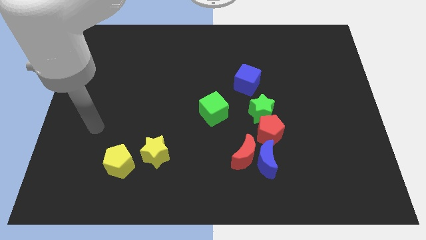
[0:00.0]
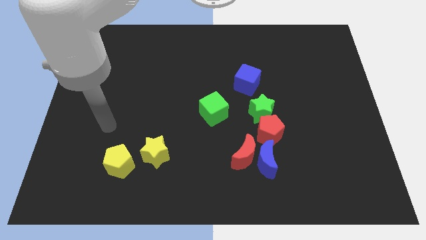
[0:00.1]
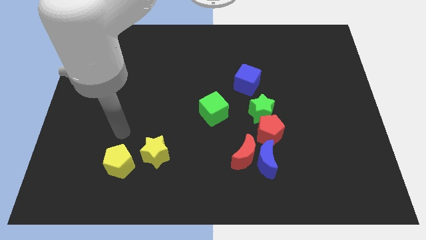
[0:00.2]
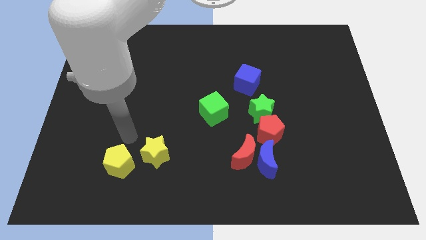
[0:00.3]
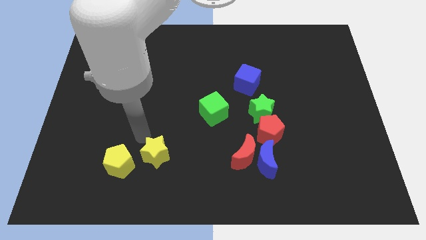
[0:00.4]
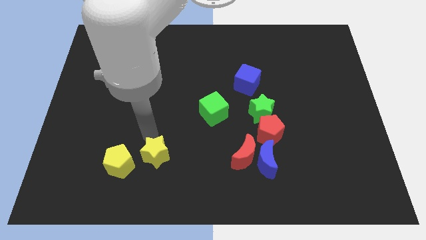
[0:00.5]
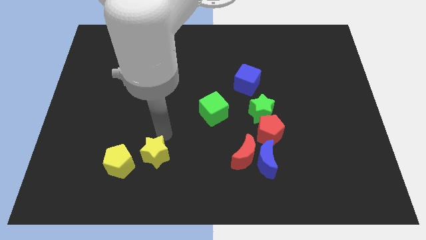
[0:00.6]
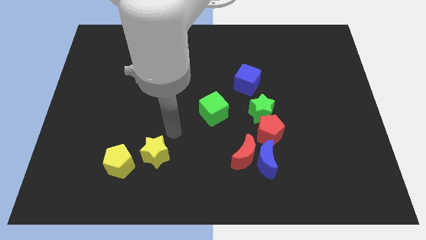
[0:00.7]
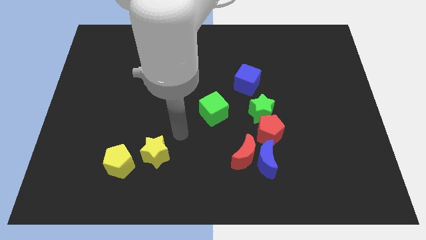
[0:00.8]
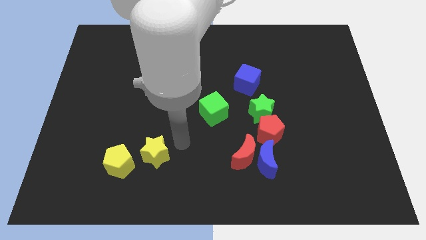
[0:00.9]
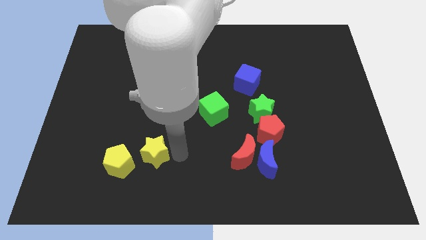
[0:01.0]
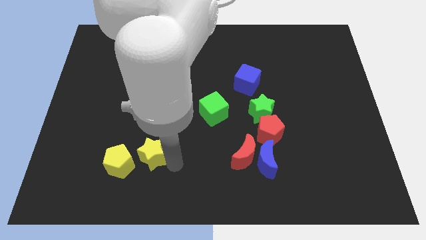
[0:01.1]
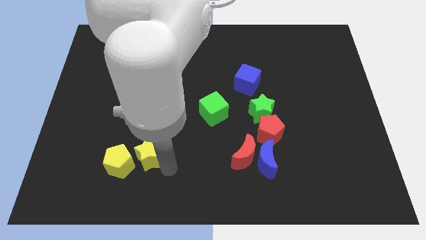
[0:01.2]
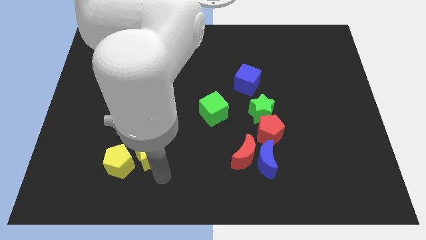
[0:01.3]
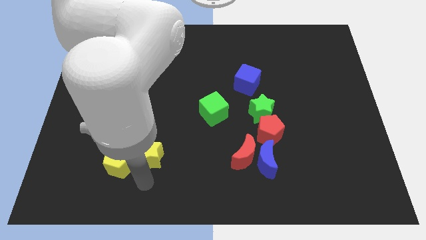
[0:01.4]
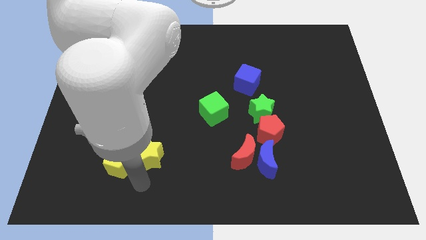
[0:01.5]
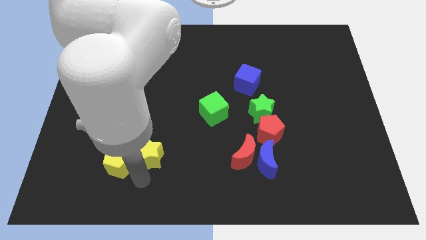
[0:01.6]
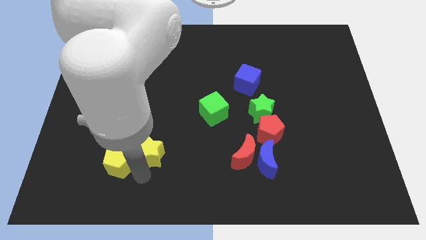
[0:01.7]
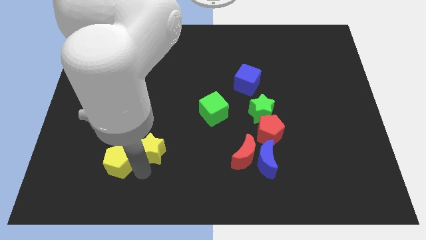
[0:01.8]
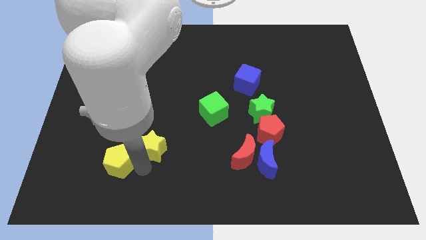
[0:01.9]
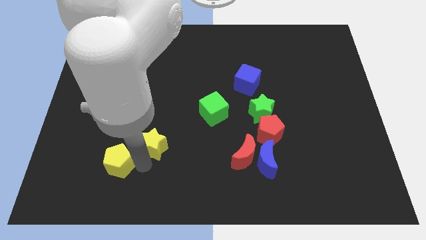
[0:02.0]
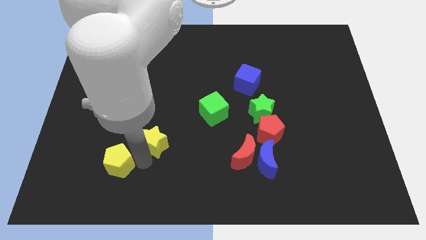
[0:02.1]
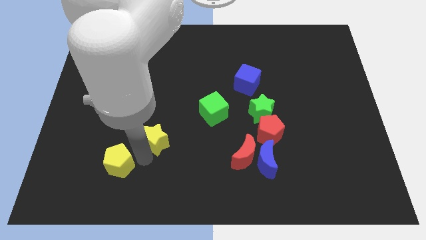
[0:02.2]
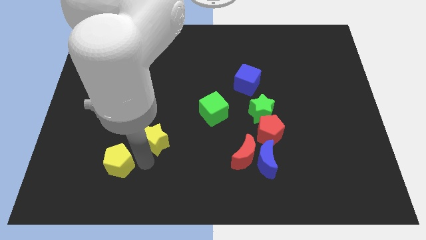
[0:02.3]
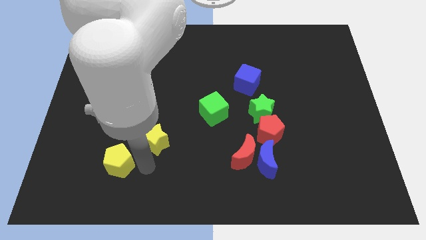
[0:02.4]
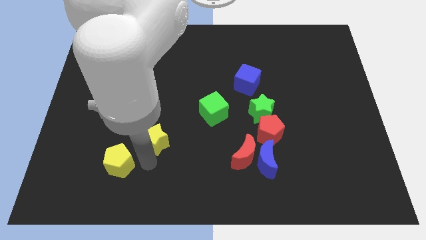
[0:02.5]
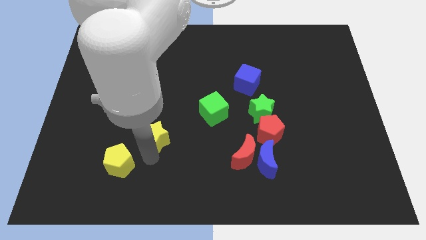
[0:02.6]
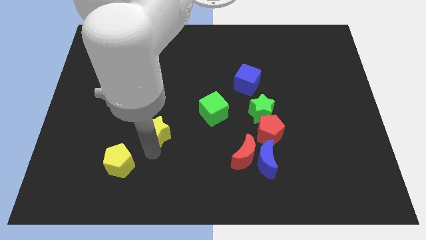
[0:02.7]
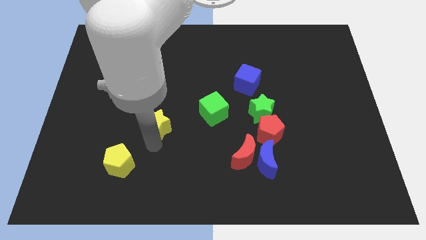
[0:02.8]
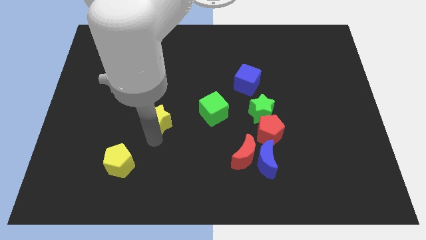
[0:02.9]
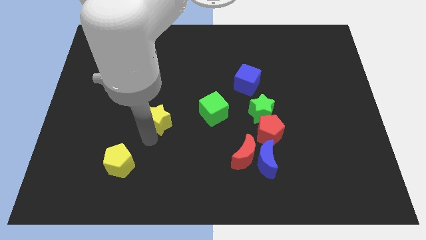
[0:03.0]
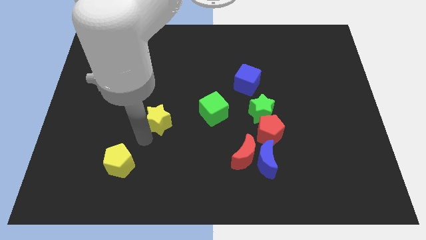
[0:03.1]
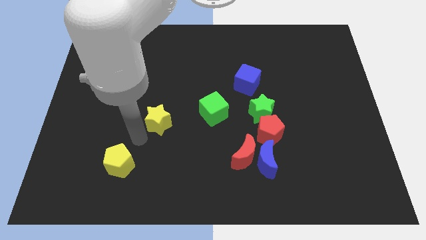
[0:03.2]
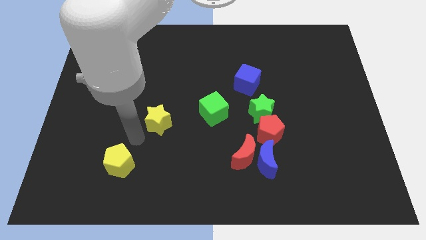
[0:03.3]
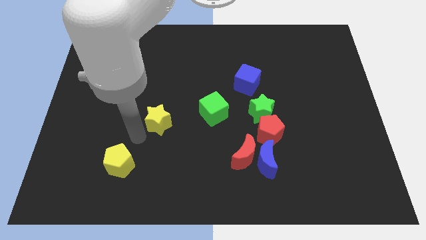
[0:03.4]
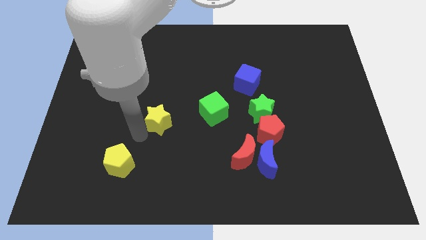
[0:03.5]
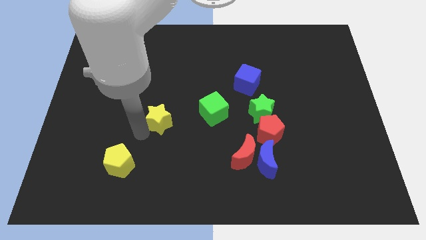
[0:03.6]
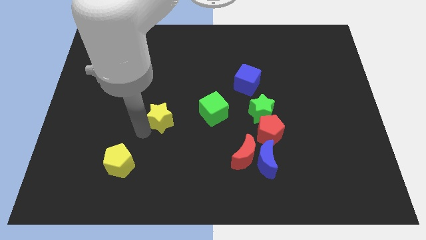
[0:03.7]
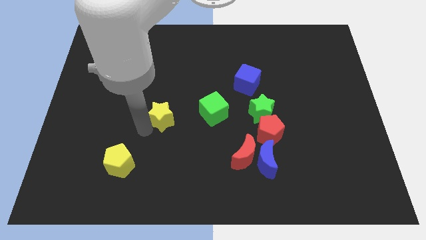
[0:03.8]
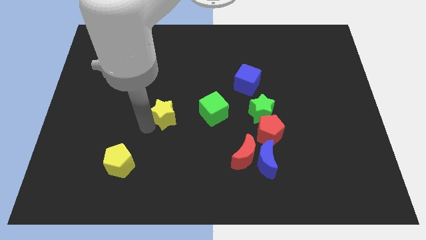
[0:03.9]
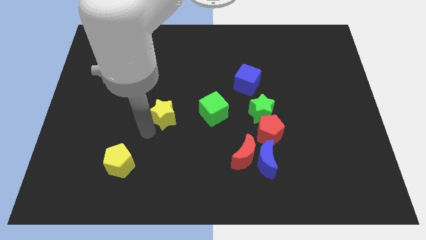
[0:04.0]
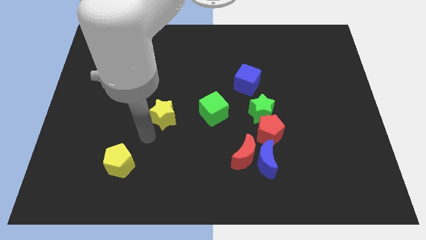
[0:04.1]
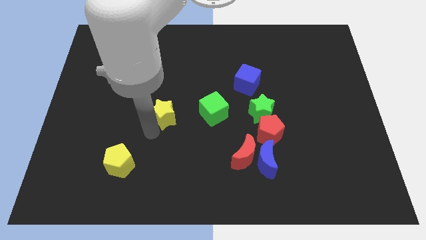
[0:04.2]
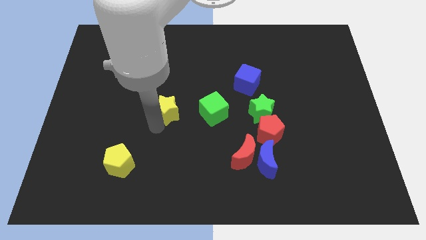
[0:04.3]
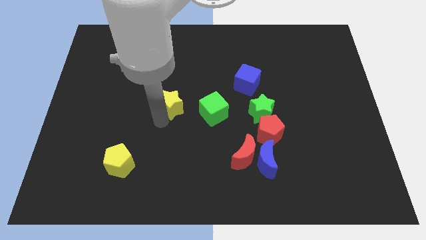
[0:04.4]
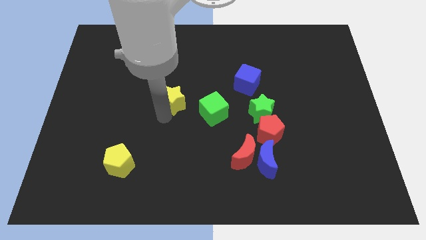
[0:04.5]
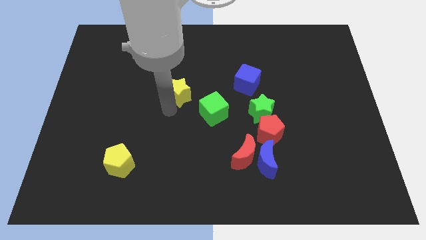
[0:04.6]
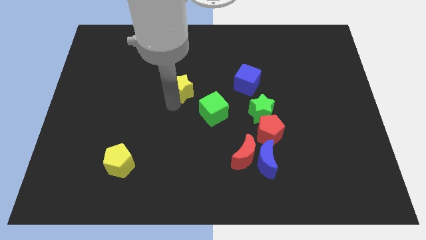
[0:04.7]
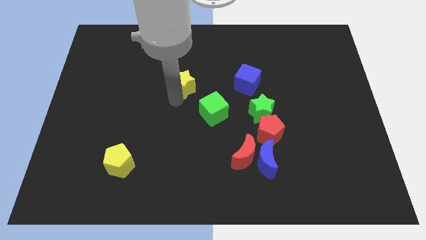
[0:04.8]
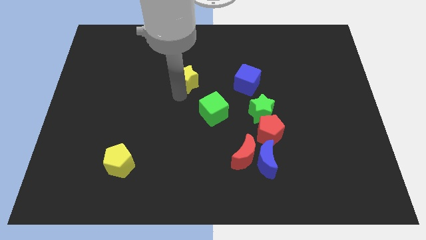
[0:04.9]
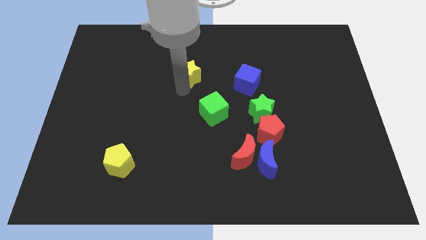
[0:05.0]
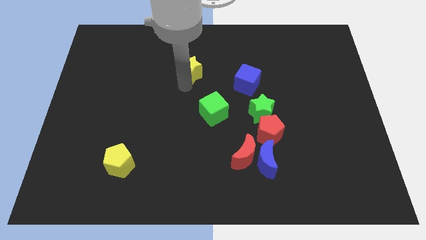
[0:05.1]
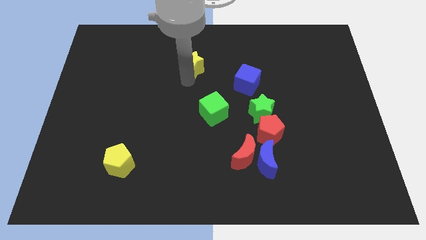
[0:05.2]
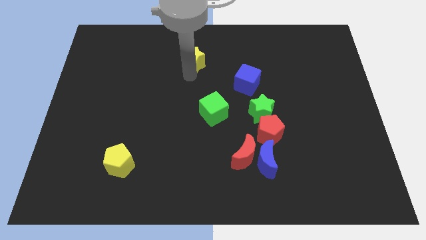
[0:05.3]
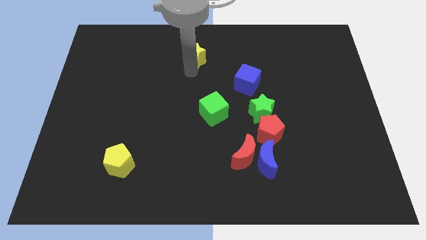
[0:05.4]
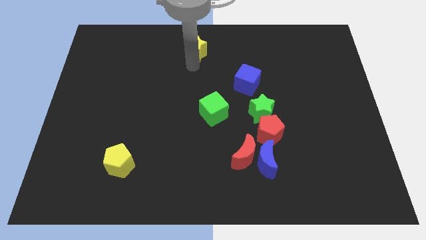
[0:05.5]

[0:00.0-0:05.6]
move the yellow star to the towards your base

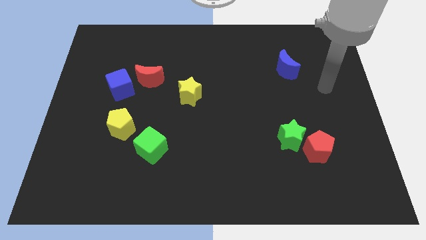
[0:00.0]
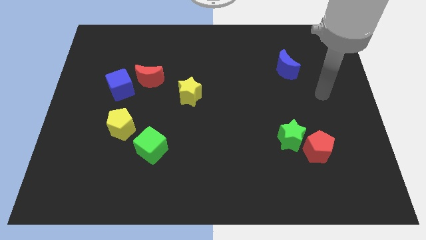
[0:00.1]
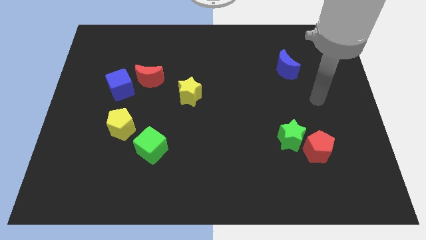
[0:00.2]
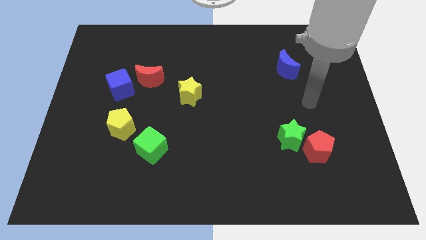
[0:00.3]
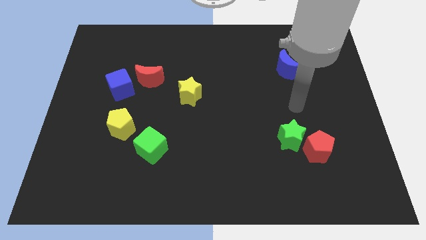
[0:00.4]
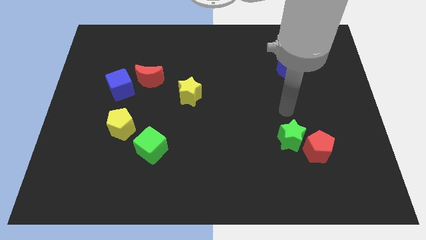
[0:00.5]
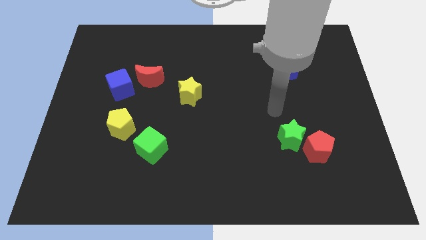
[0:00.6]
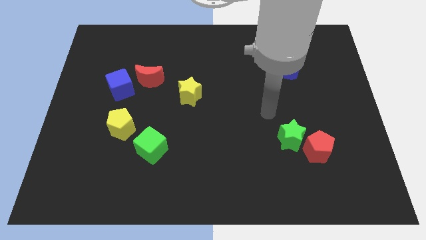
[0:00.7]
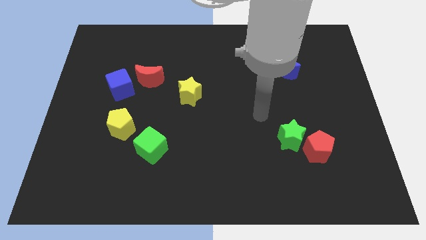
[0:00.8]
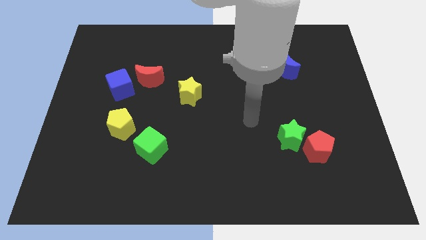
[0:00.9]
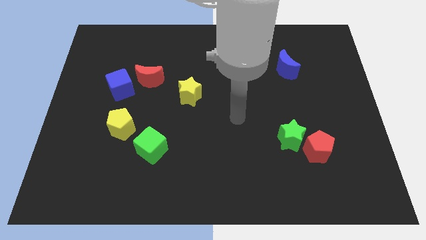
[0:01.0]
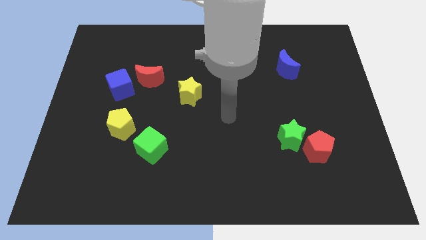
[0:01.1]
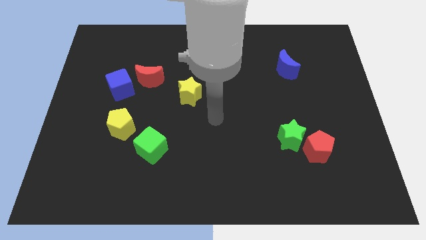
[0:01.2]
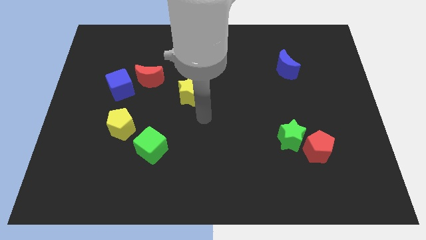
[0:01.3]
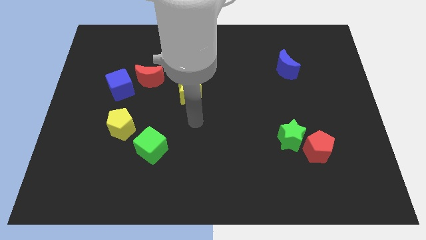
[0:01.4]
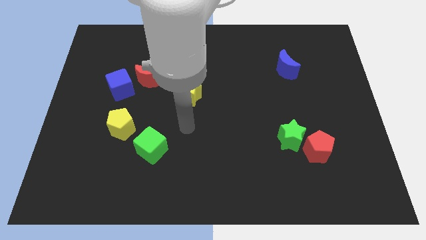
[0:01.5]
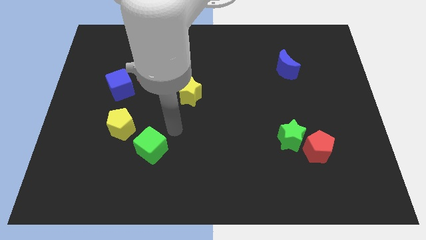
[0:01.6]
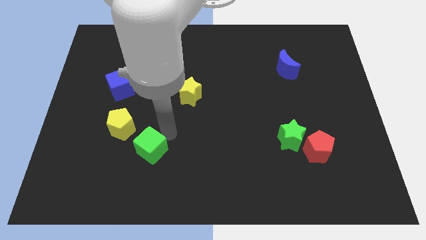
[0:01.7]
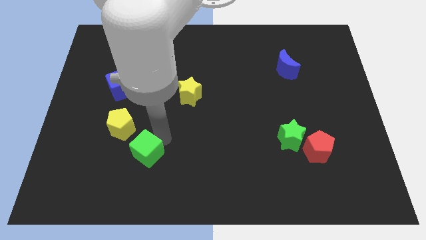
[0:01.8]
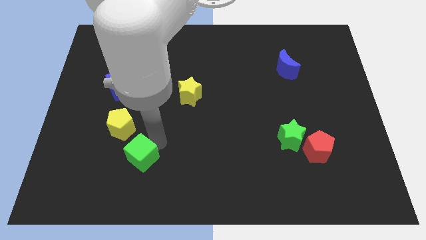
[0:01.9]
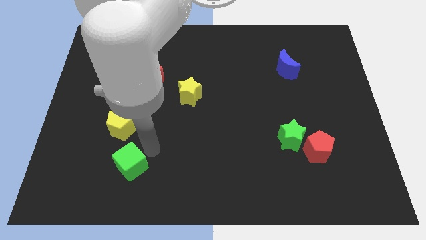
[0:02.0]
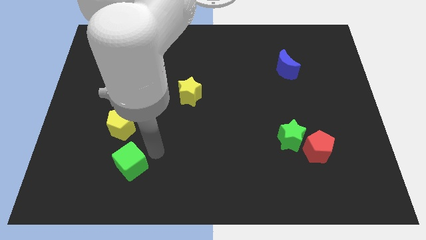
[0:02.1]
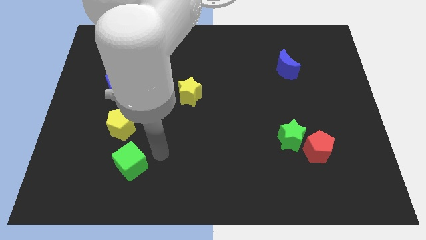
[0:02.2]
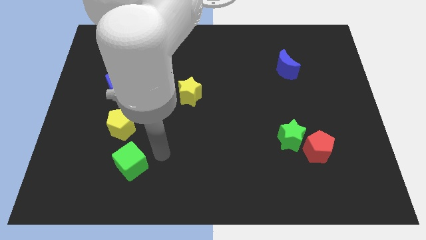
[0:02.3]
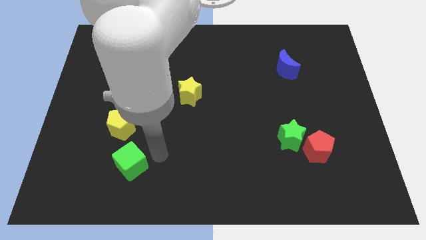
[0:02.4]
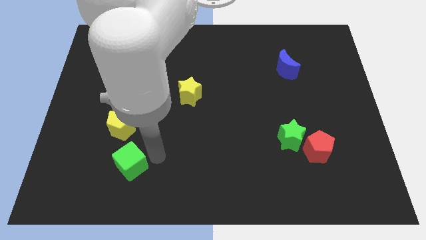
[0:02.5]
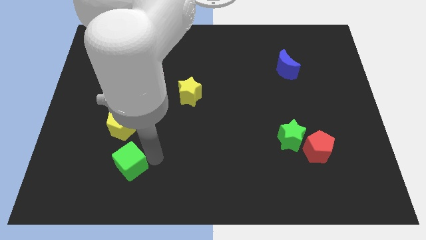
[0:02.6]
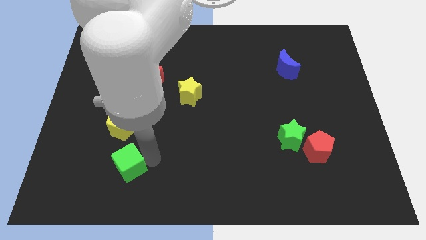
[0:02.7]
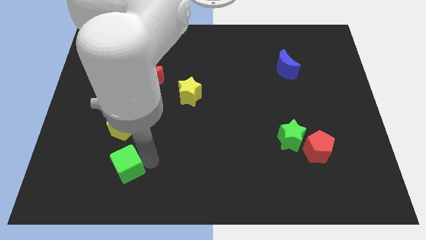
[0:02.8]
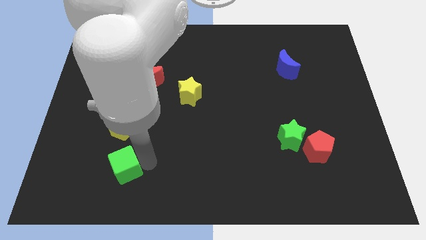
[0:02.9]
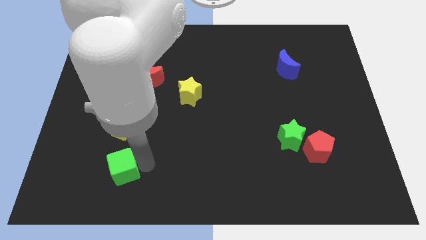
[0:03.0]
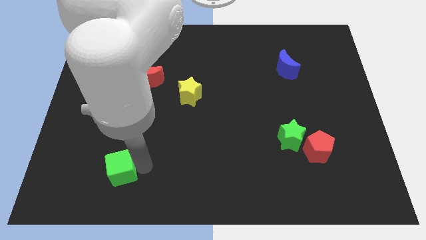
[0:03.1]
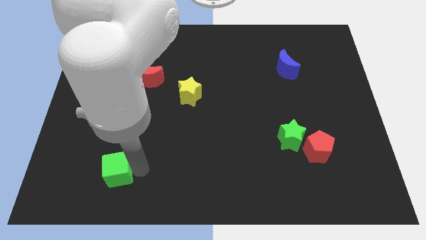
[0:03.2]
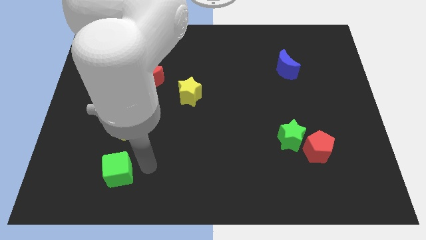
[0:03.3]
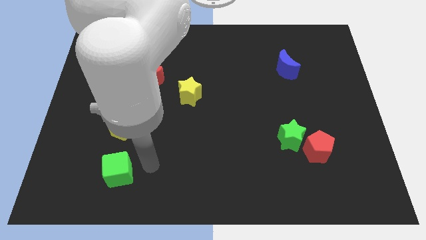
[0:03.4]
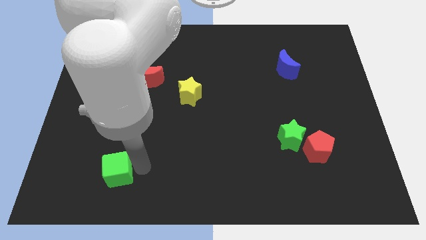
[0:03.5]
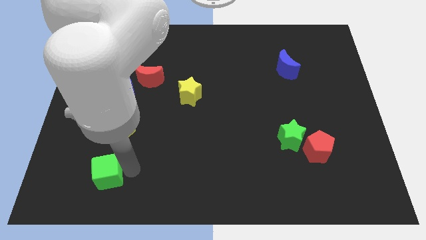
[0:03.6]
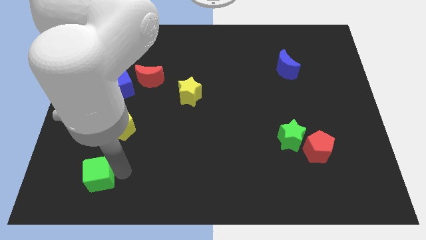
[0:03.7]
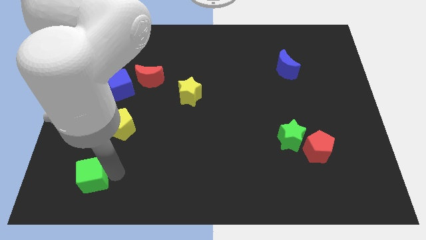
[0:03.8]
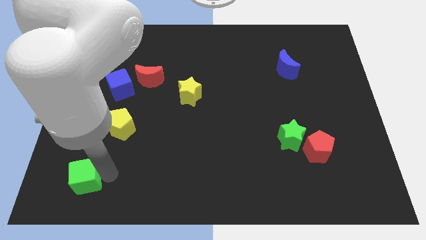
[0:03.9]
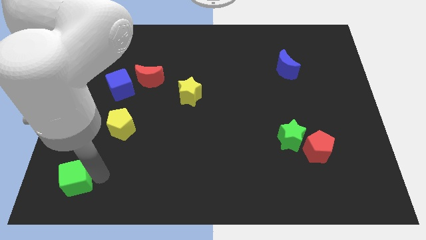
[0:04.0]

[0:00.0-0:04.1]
put the green cube to the bottom left corner
